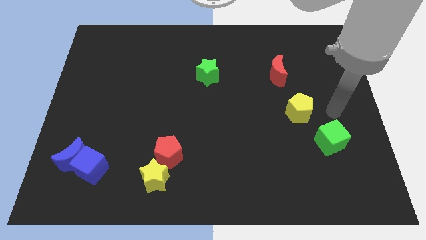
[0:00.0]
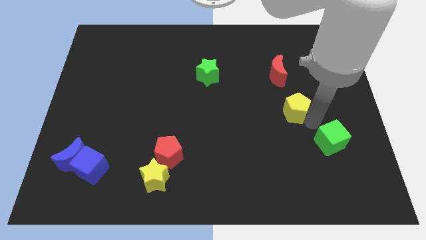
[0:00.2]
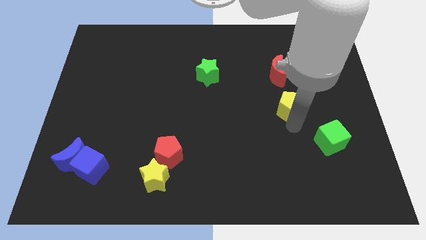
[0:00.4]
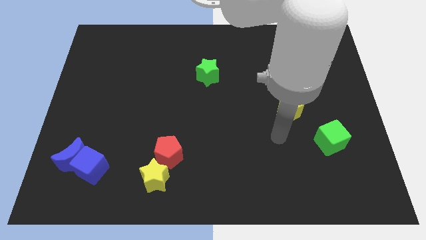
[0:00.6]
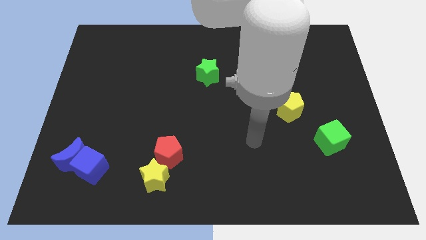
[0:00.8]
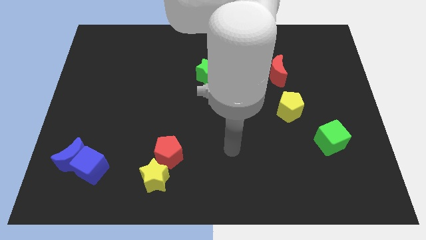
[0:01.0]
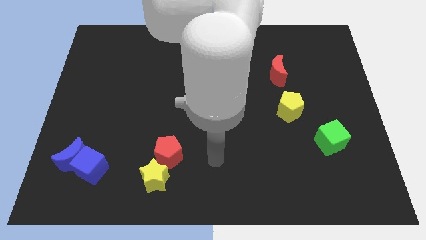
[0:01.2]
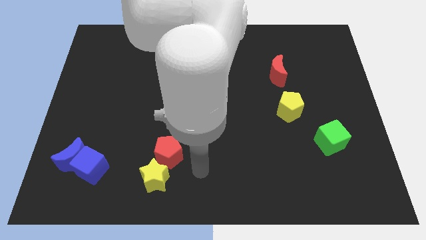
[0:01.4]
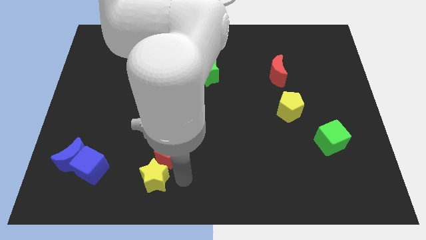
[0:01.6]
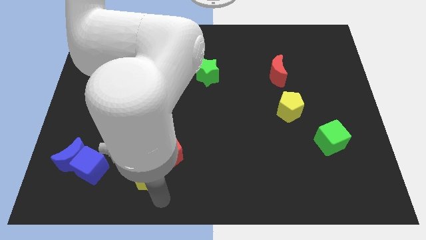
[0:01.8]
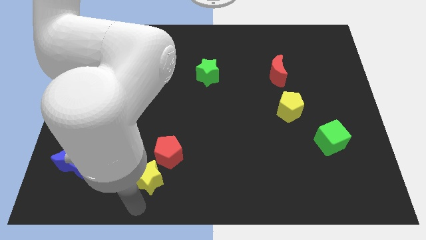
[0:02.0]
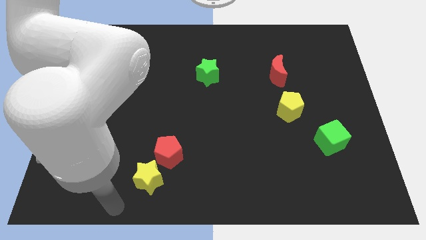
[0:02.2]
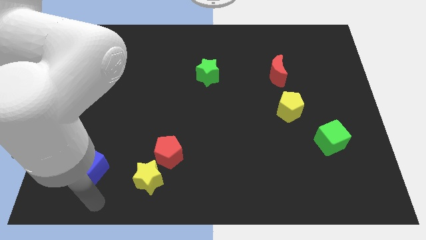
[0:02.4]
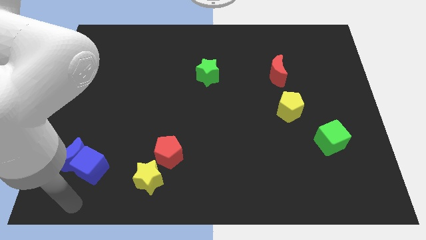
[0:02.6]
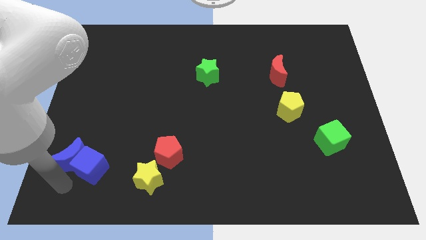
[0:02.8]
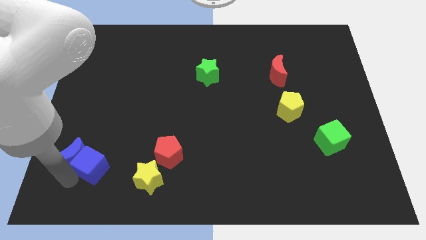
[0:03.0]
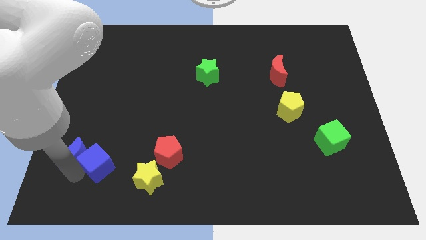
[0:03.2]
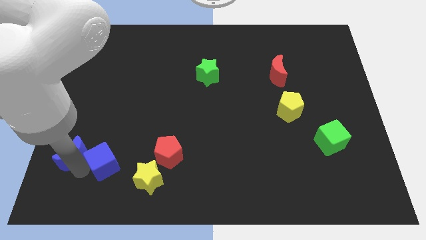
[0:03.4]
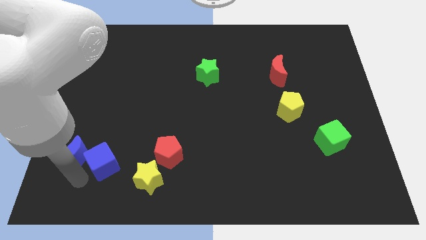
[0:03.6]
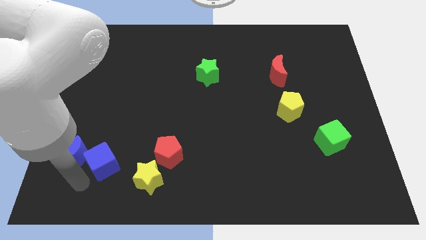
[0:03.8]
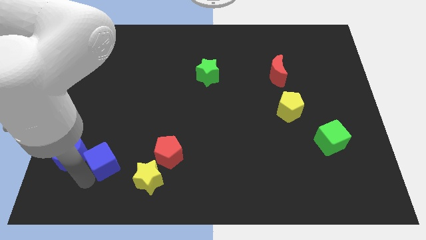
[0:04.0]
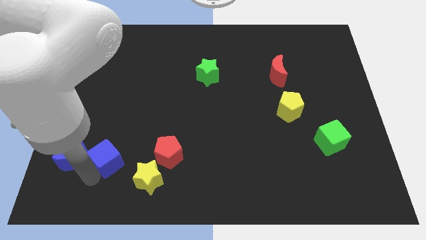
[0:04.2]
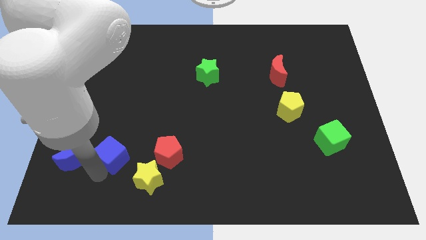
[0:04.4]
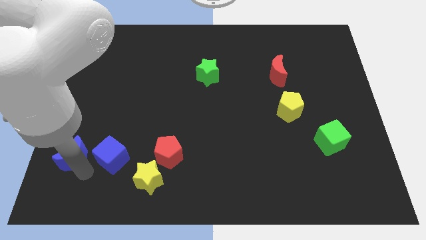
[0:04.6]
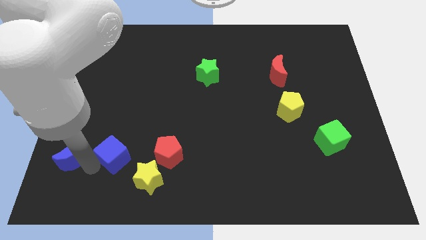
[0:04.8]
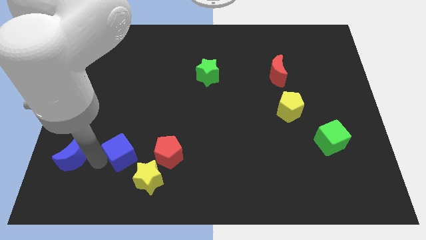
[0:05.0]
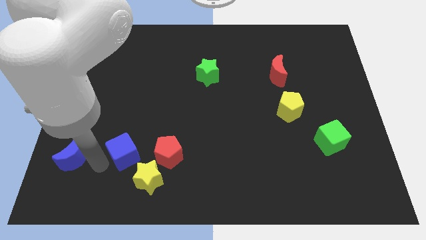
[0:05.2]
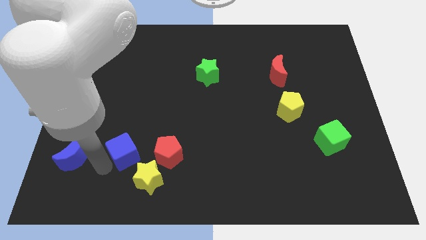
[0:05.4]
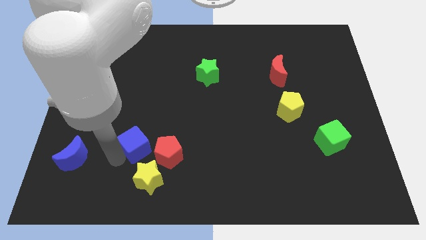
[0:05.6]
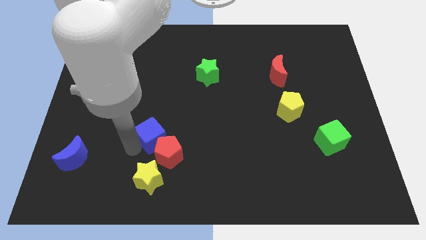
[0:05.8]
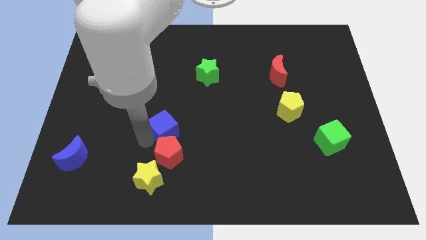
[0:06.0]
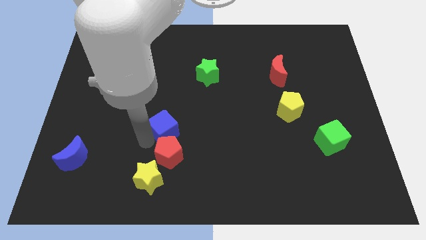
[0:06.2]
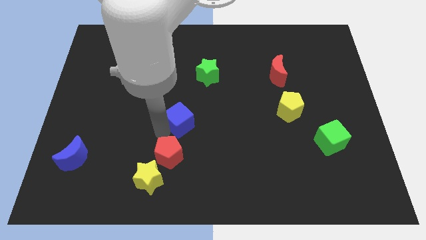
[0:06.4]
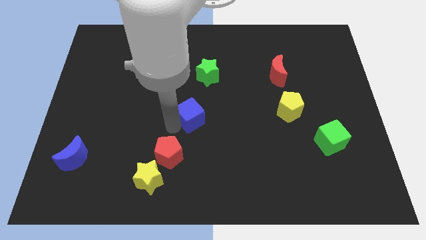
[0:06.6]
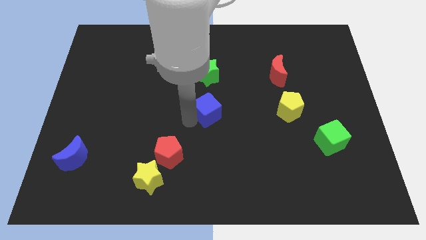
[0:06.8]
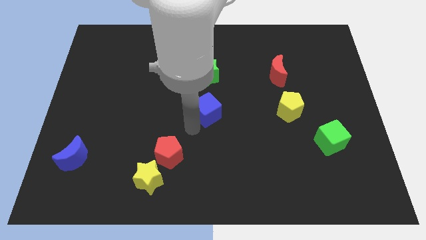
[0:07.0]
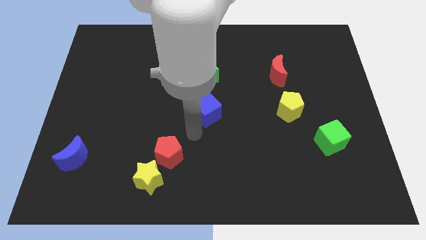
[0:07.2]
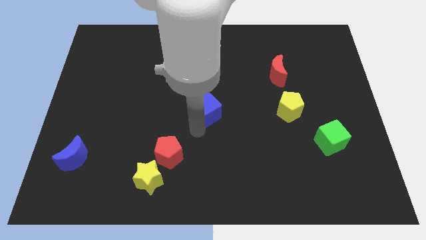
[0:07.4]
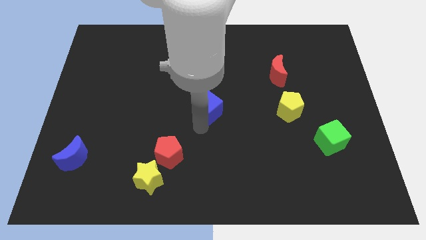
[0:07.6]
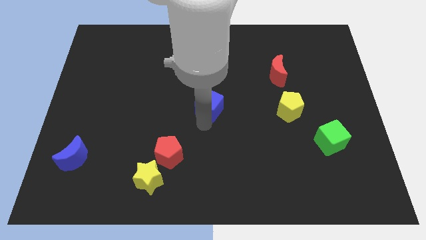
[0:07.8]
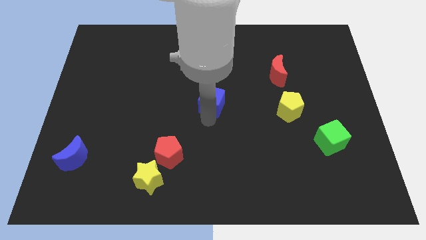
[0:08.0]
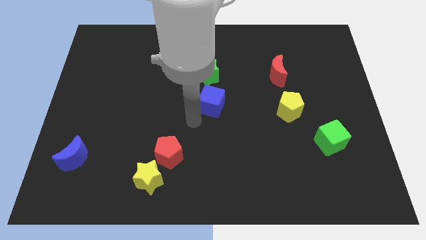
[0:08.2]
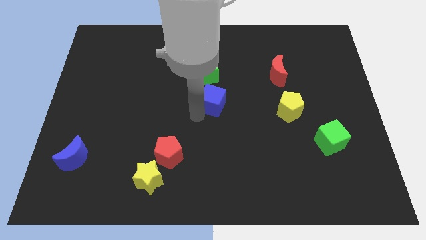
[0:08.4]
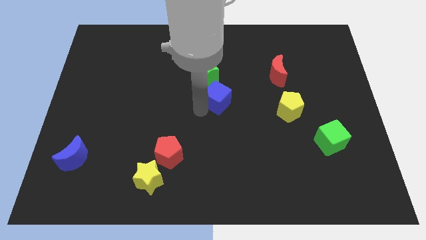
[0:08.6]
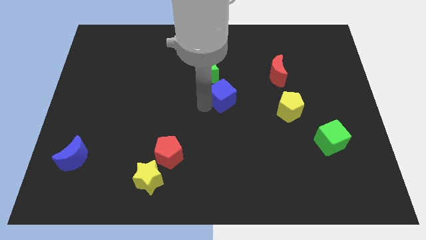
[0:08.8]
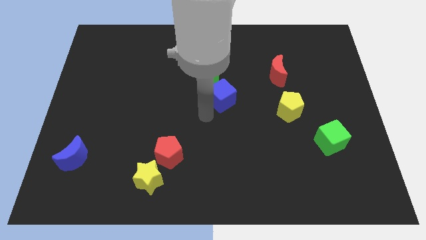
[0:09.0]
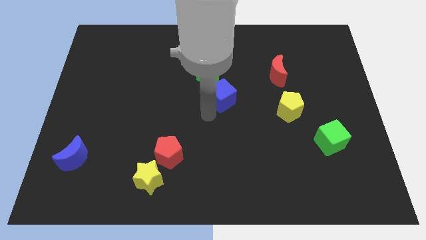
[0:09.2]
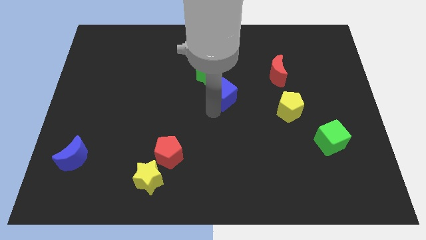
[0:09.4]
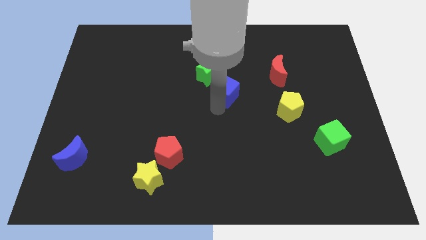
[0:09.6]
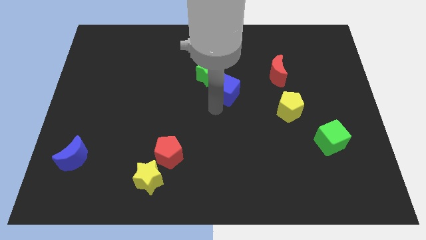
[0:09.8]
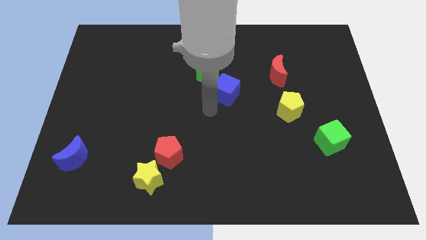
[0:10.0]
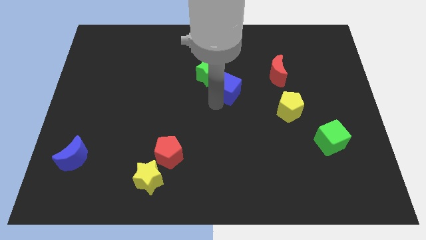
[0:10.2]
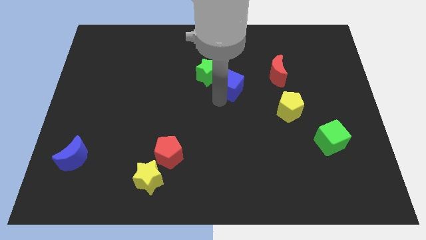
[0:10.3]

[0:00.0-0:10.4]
move the blue cube right of the green star

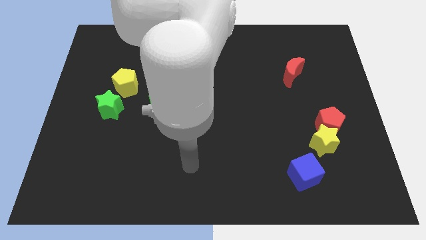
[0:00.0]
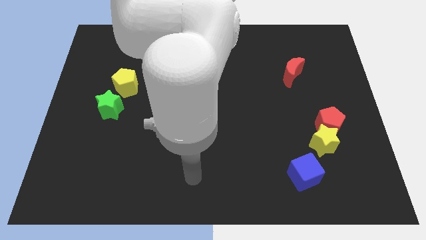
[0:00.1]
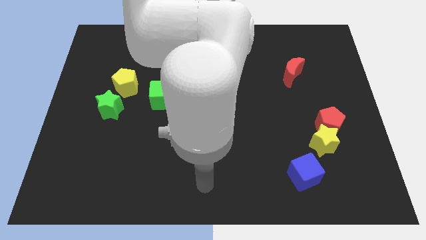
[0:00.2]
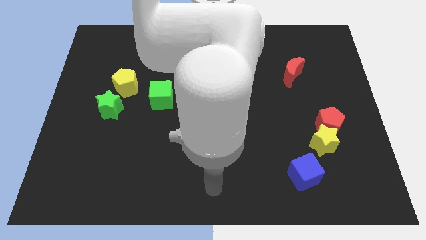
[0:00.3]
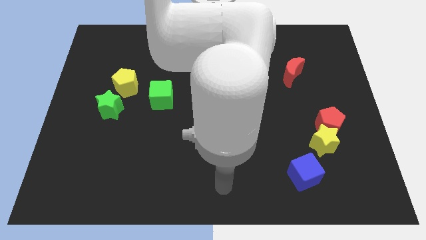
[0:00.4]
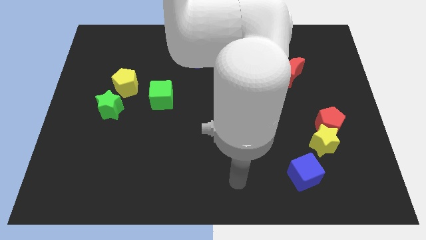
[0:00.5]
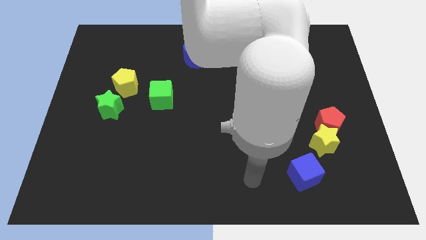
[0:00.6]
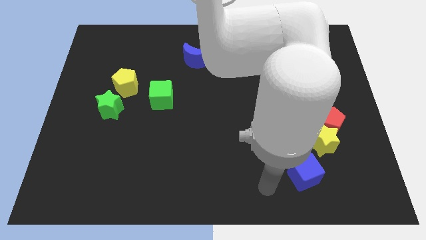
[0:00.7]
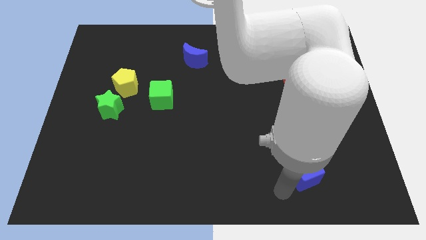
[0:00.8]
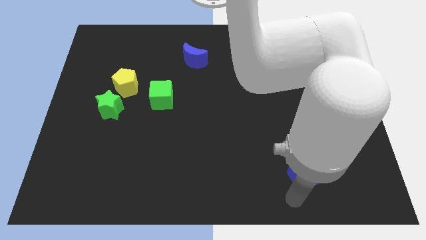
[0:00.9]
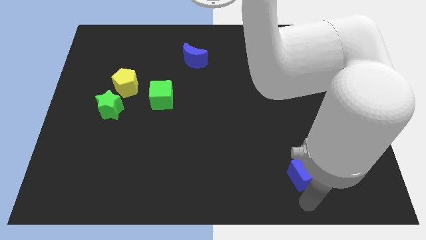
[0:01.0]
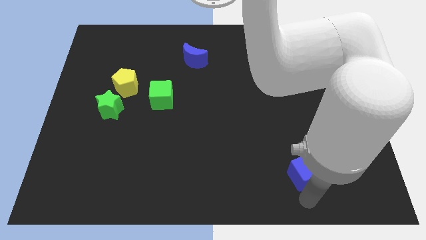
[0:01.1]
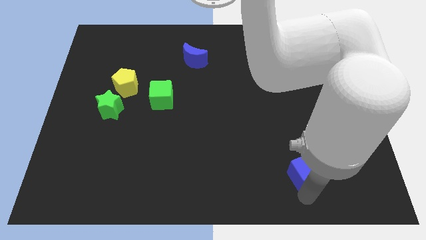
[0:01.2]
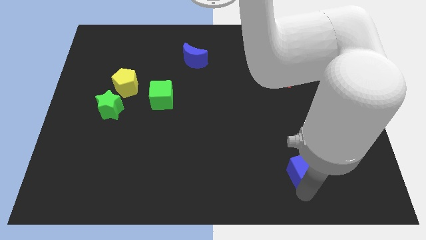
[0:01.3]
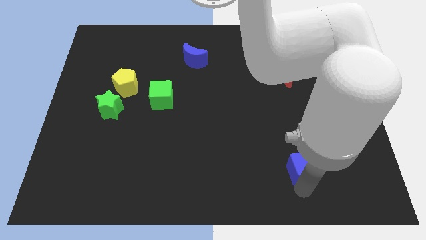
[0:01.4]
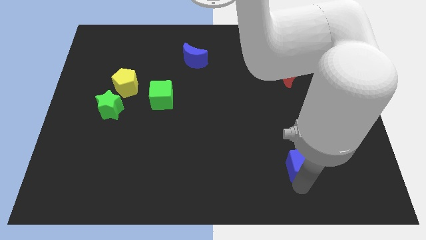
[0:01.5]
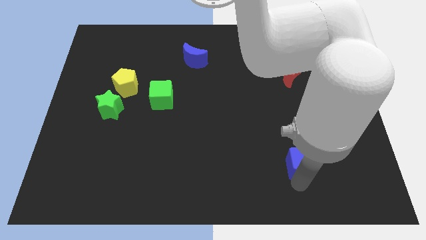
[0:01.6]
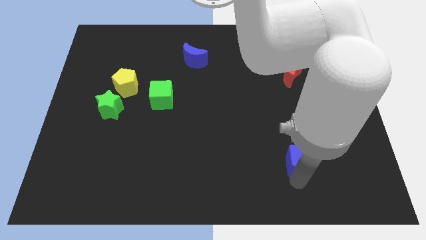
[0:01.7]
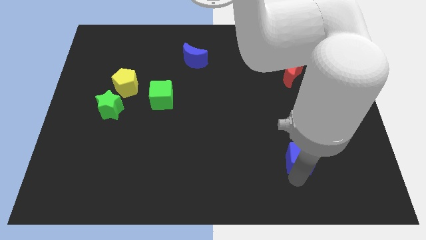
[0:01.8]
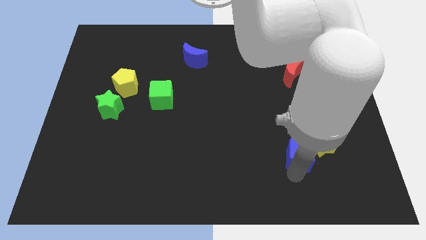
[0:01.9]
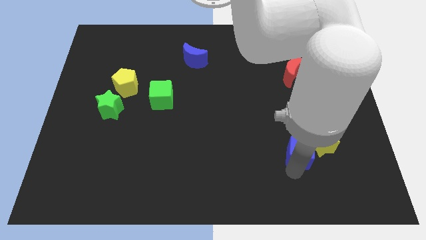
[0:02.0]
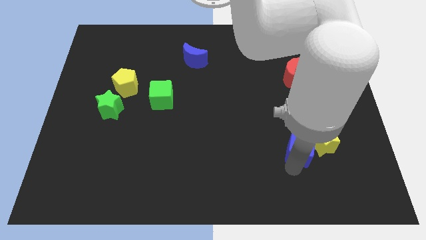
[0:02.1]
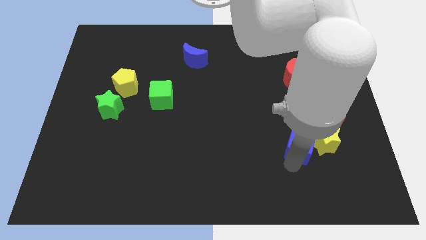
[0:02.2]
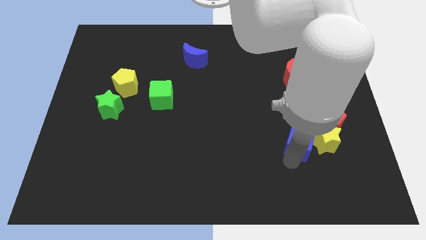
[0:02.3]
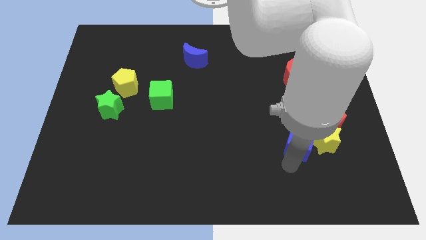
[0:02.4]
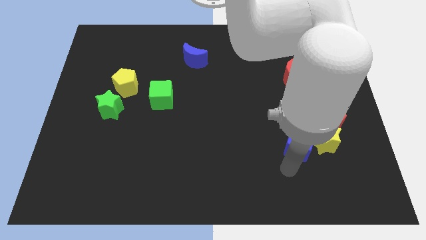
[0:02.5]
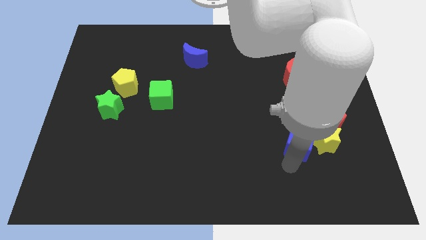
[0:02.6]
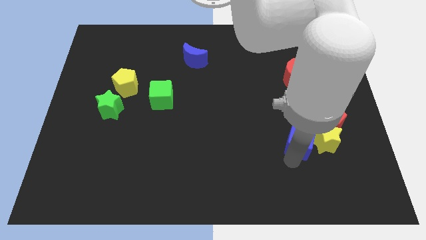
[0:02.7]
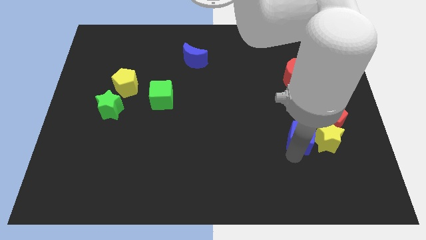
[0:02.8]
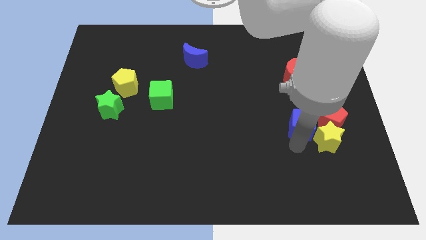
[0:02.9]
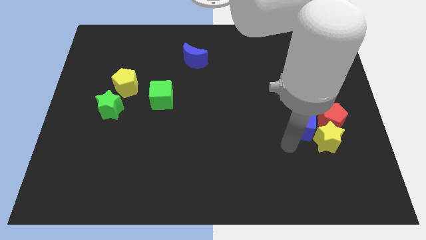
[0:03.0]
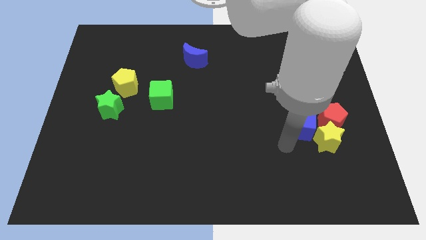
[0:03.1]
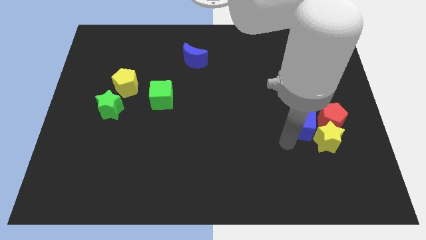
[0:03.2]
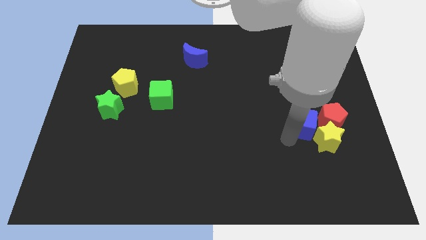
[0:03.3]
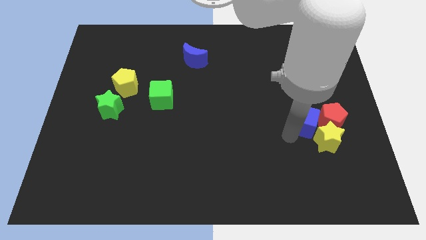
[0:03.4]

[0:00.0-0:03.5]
move the blue cube to the top of the yellow star
